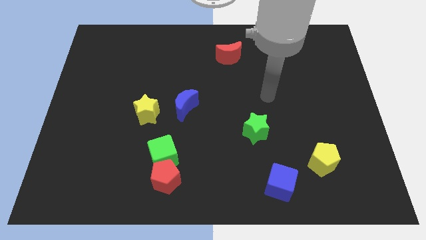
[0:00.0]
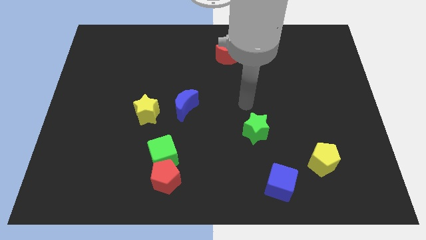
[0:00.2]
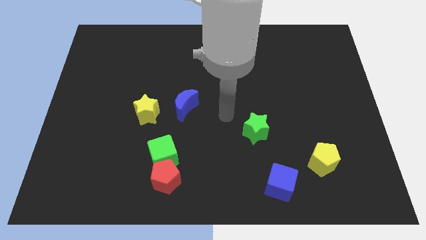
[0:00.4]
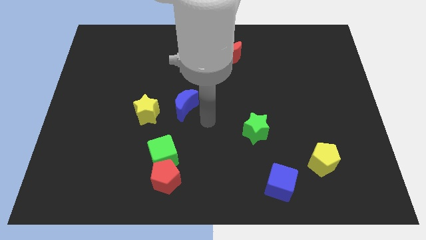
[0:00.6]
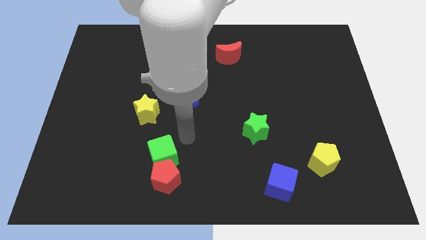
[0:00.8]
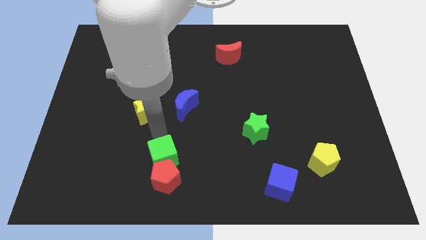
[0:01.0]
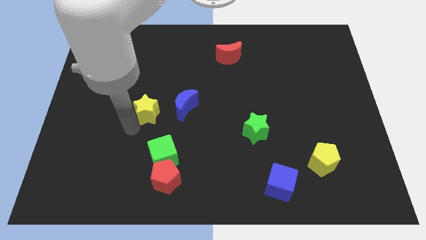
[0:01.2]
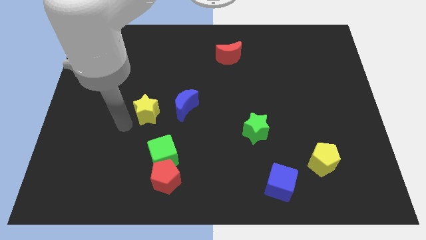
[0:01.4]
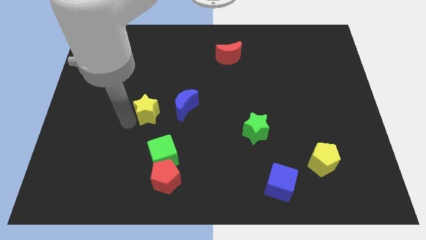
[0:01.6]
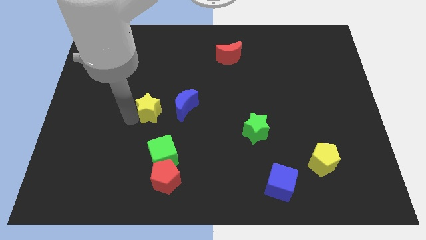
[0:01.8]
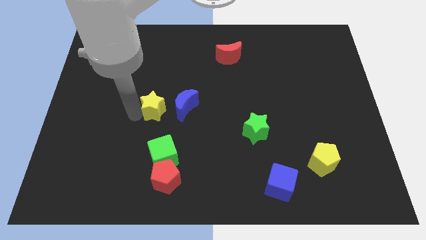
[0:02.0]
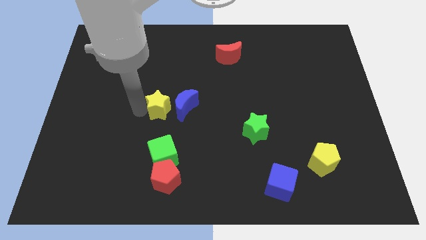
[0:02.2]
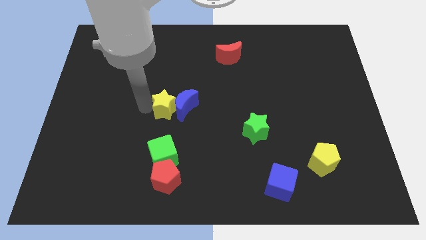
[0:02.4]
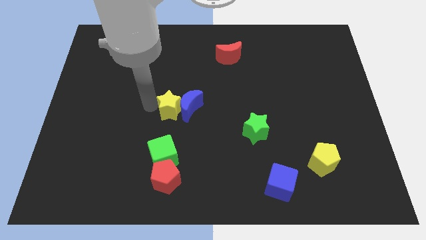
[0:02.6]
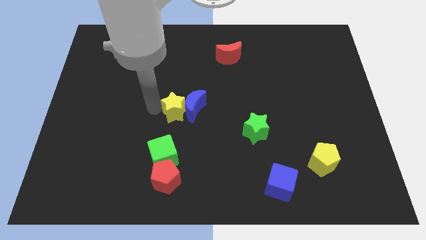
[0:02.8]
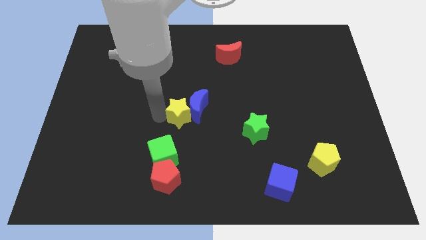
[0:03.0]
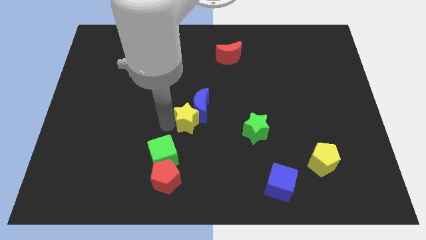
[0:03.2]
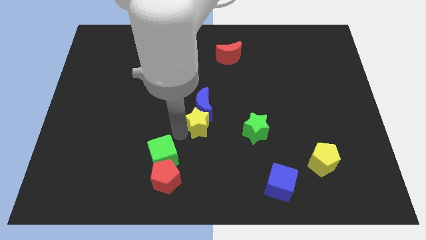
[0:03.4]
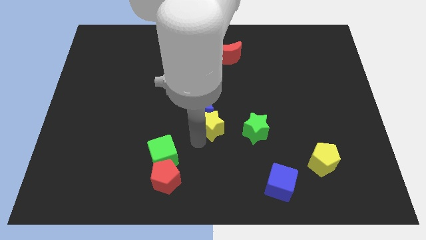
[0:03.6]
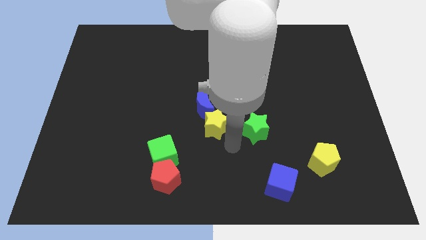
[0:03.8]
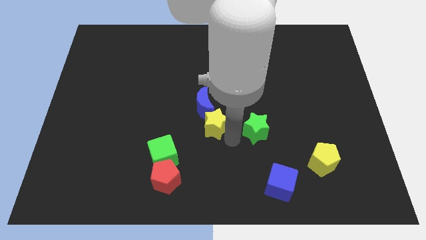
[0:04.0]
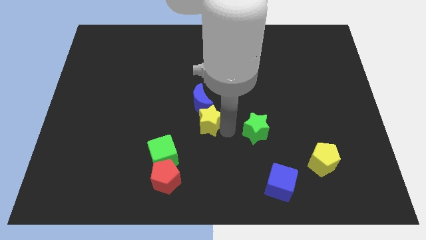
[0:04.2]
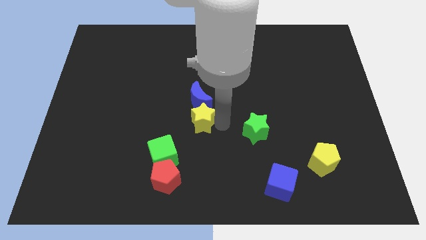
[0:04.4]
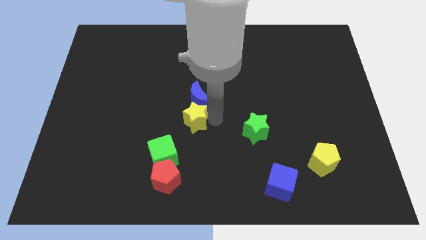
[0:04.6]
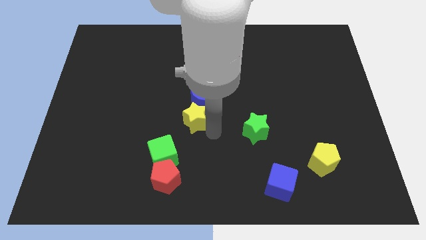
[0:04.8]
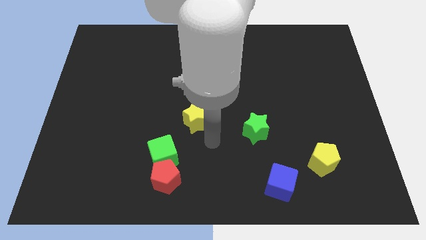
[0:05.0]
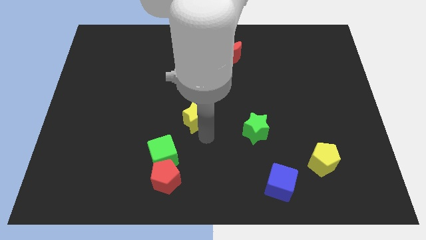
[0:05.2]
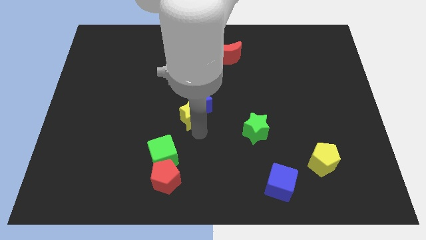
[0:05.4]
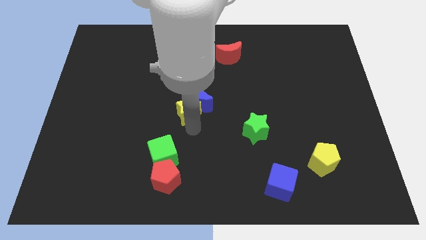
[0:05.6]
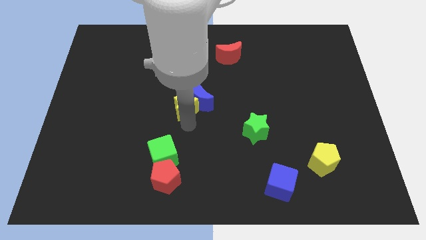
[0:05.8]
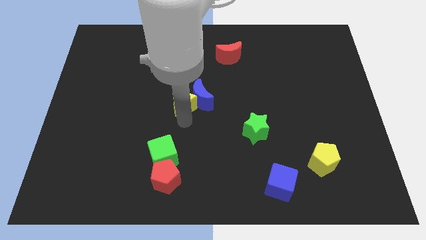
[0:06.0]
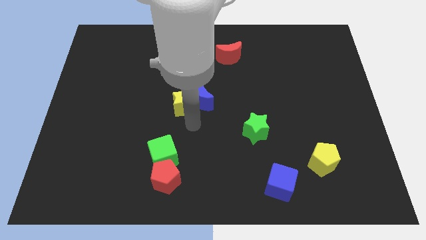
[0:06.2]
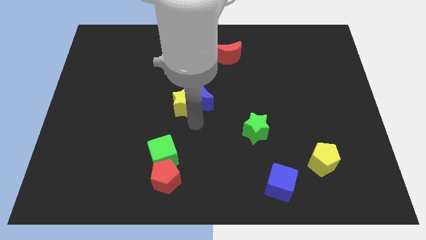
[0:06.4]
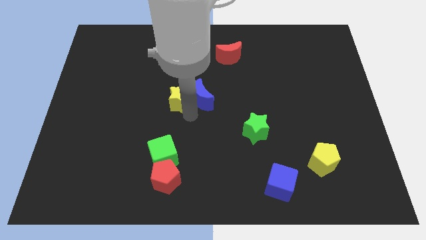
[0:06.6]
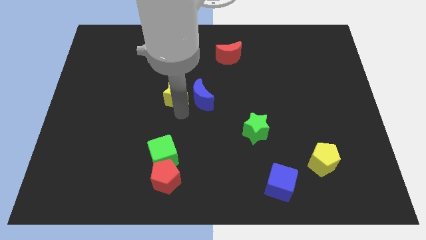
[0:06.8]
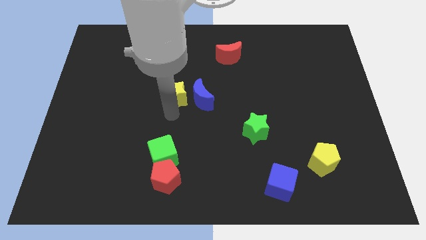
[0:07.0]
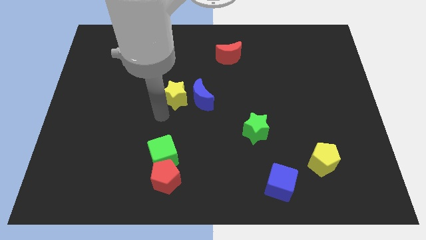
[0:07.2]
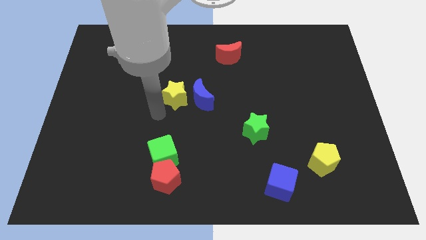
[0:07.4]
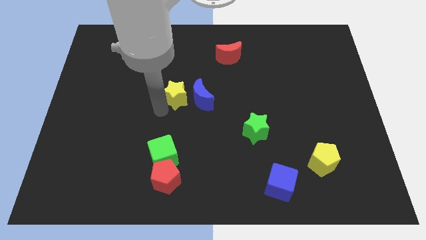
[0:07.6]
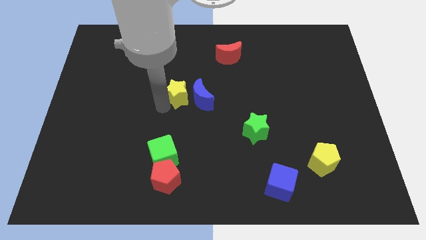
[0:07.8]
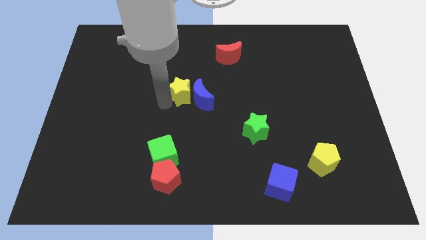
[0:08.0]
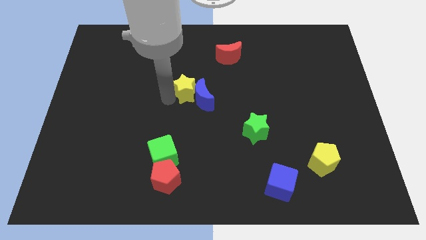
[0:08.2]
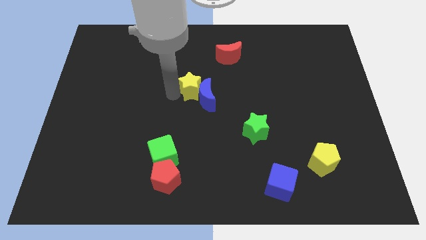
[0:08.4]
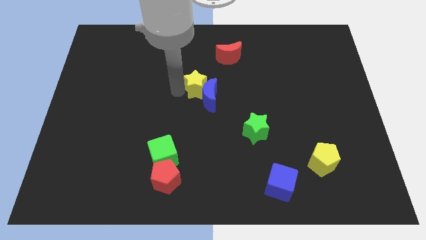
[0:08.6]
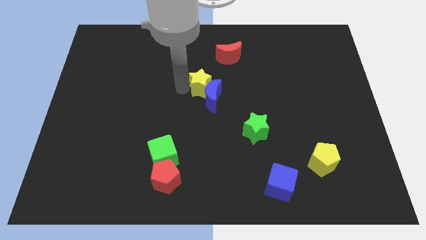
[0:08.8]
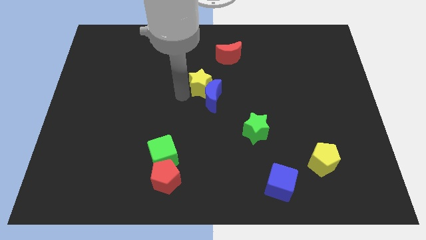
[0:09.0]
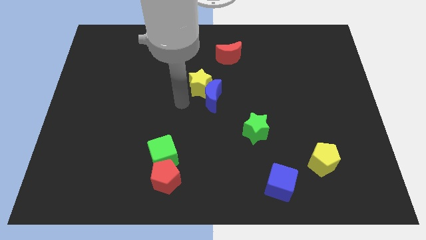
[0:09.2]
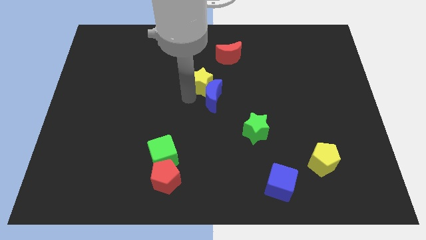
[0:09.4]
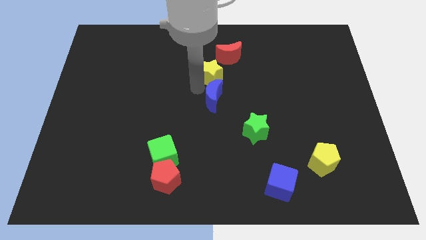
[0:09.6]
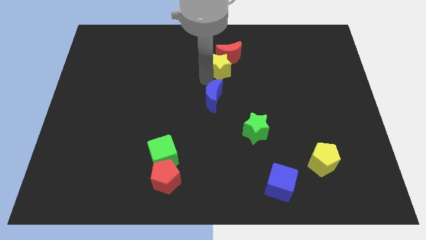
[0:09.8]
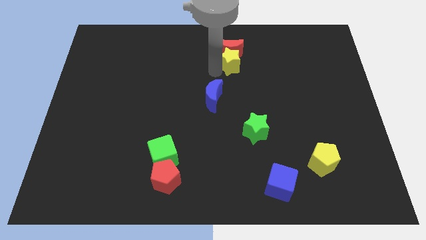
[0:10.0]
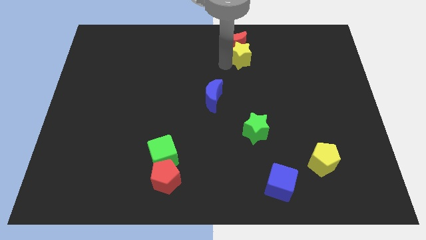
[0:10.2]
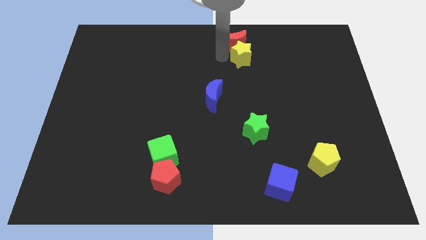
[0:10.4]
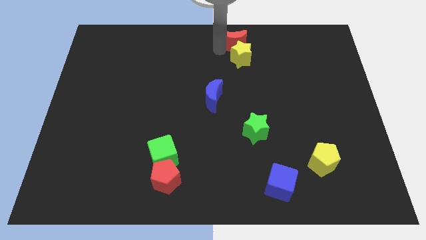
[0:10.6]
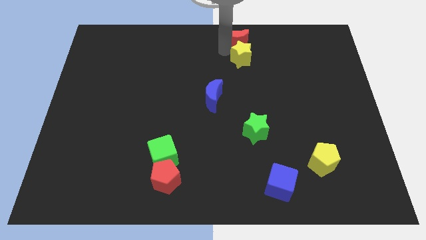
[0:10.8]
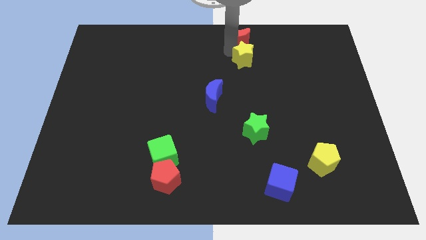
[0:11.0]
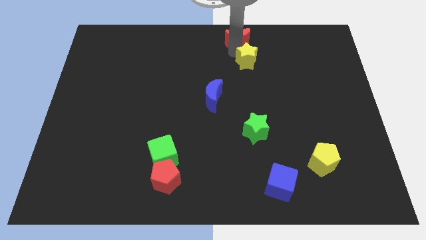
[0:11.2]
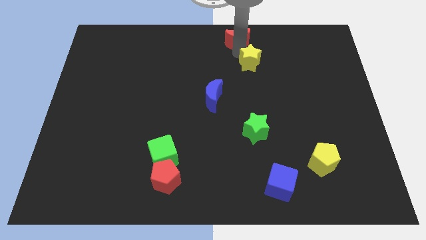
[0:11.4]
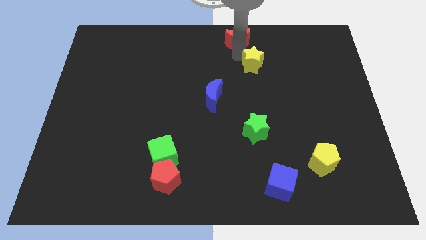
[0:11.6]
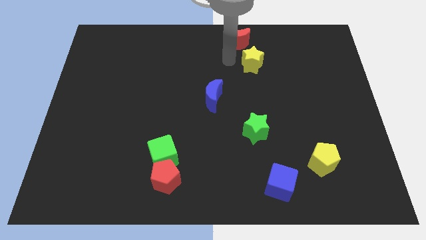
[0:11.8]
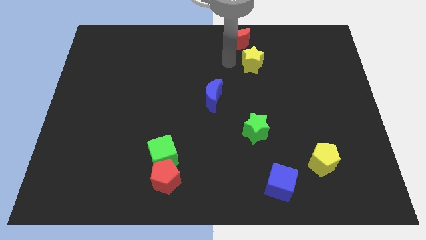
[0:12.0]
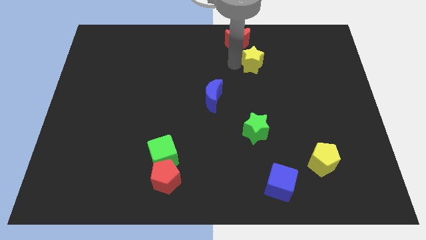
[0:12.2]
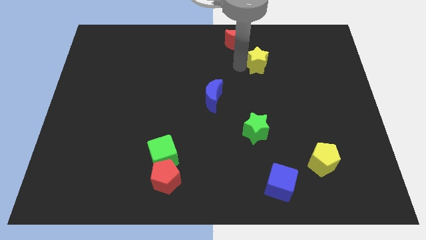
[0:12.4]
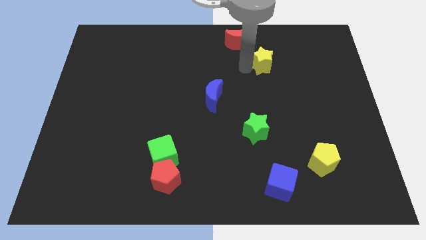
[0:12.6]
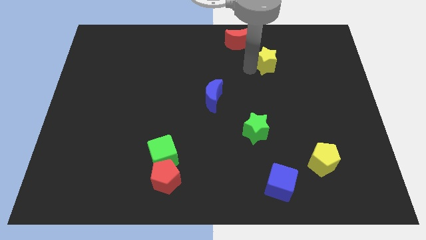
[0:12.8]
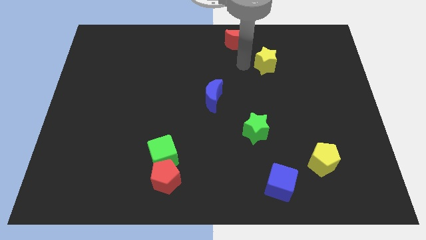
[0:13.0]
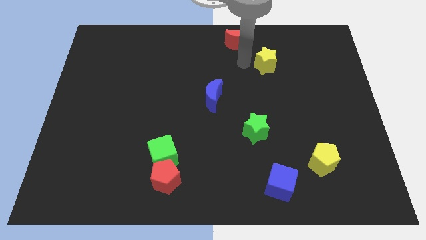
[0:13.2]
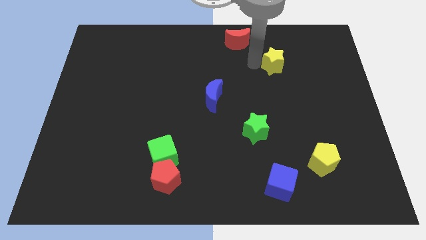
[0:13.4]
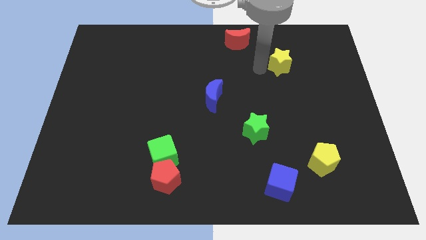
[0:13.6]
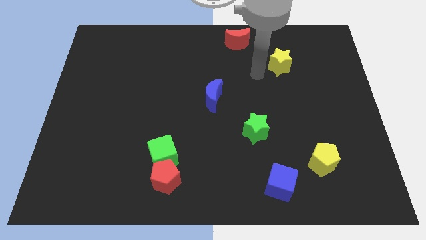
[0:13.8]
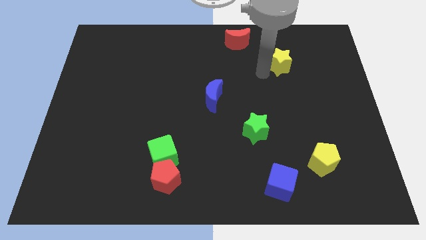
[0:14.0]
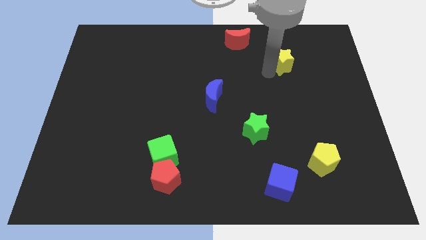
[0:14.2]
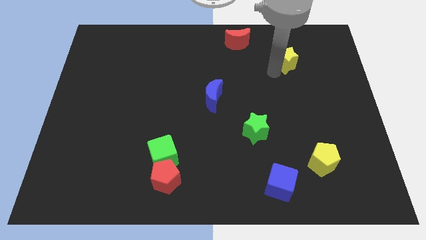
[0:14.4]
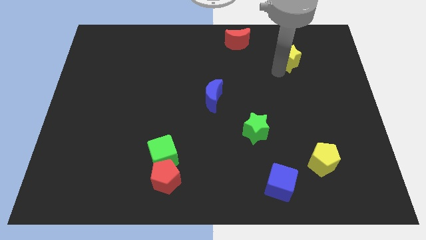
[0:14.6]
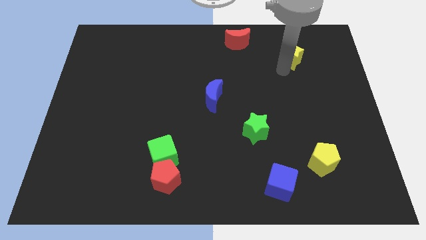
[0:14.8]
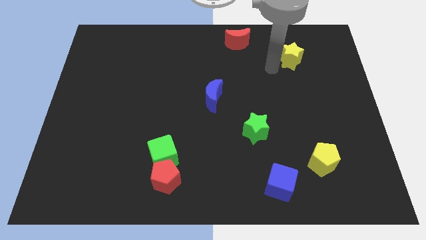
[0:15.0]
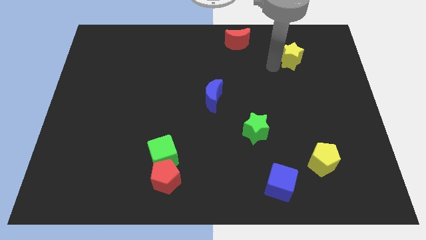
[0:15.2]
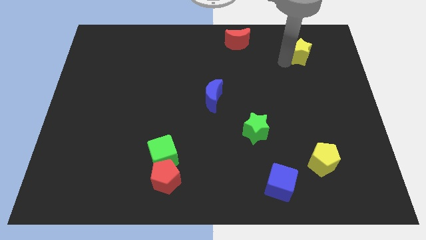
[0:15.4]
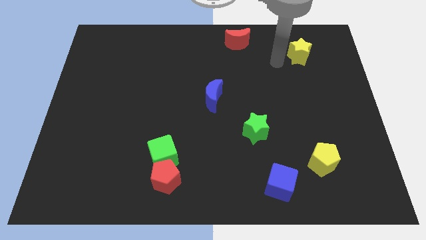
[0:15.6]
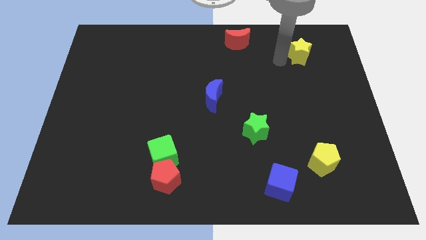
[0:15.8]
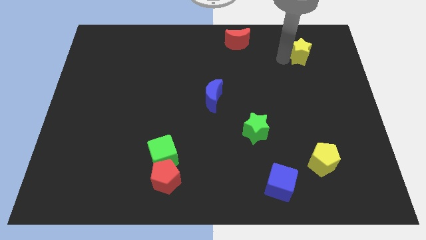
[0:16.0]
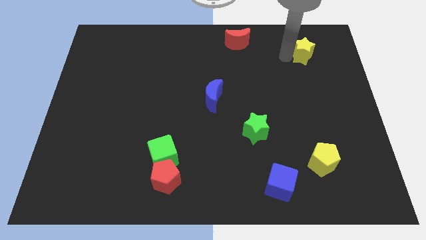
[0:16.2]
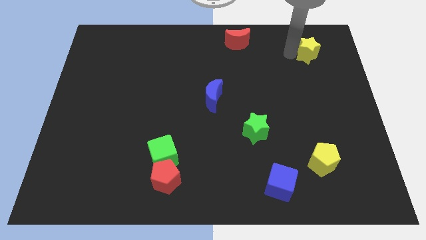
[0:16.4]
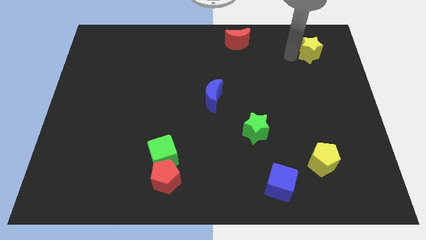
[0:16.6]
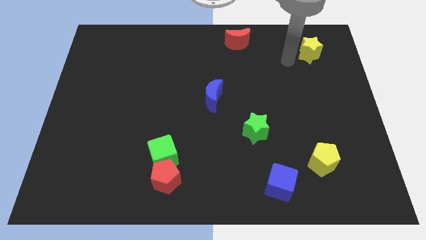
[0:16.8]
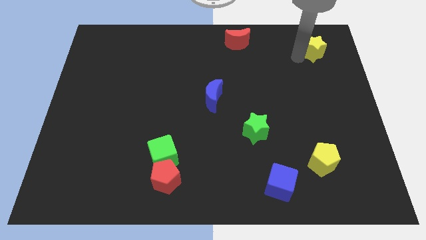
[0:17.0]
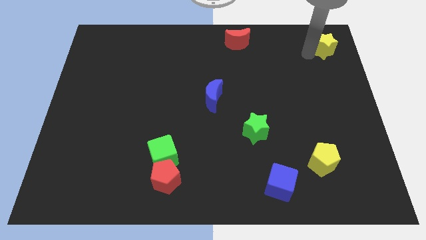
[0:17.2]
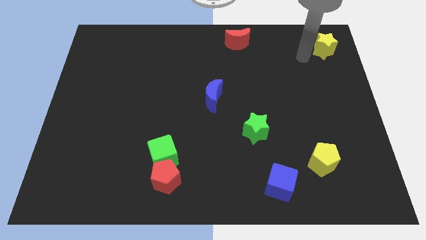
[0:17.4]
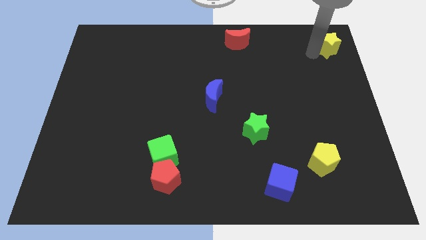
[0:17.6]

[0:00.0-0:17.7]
push the yellow star to the top right of the board
